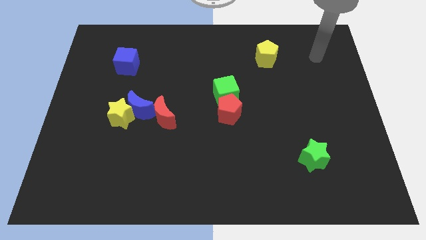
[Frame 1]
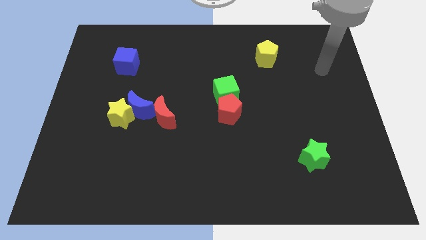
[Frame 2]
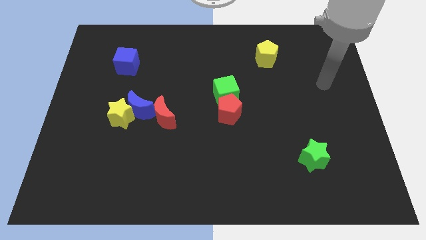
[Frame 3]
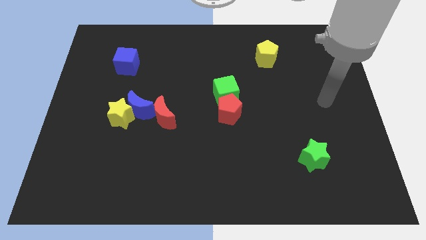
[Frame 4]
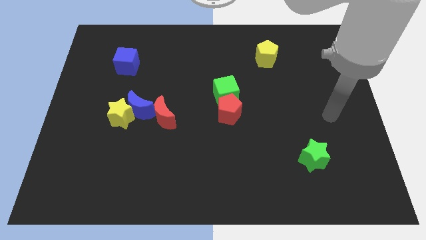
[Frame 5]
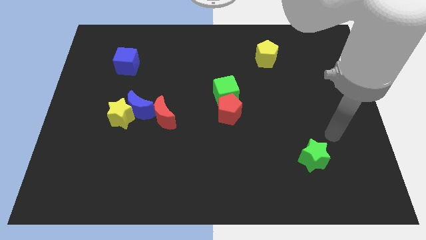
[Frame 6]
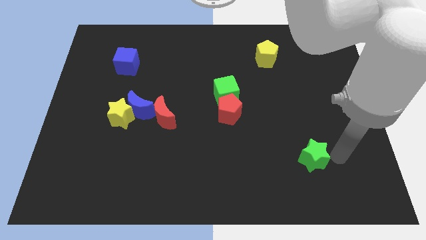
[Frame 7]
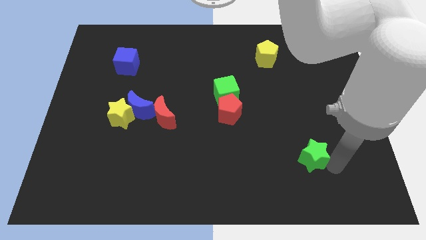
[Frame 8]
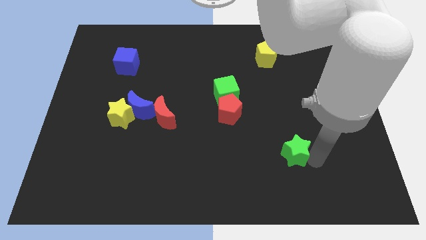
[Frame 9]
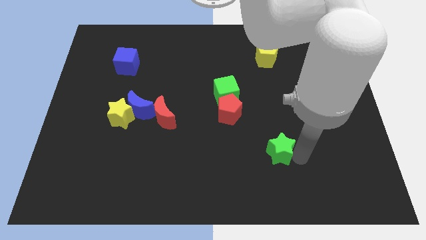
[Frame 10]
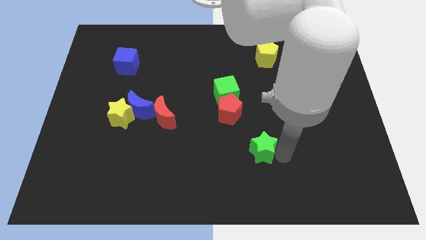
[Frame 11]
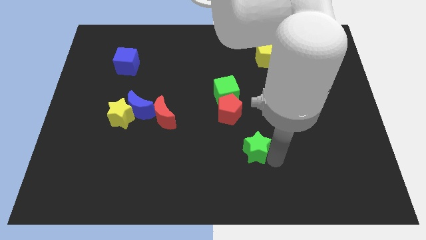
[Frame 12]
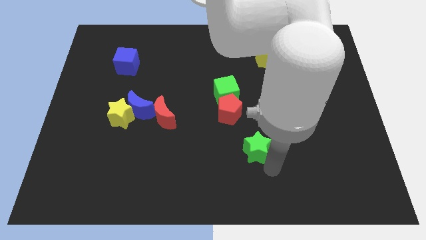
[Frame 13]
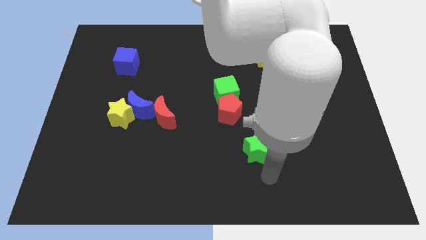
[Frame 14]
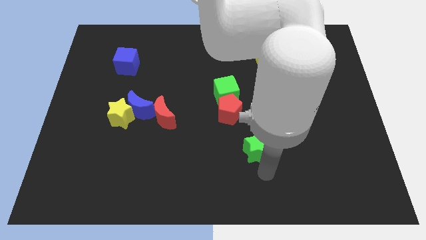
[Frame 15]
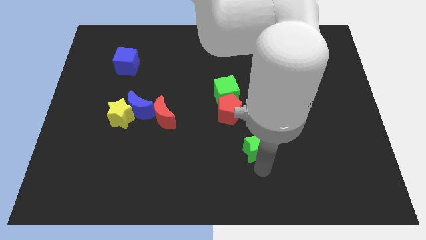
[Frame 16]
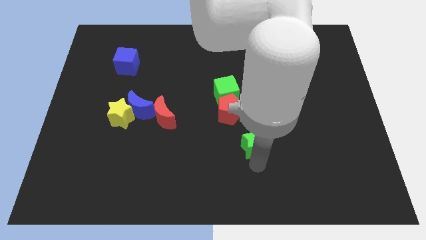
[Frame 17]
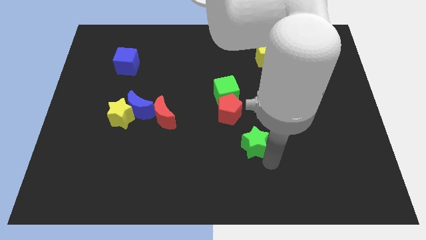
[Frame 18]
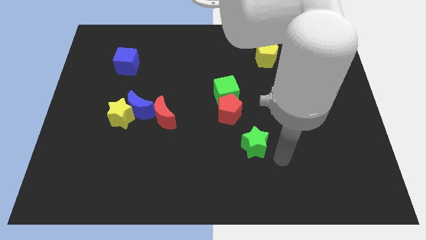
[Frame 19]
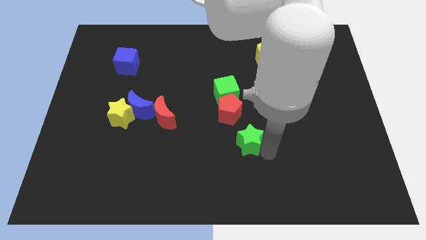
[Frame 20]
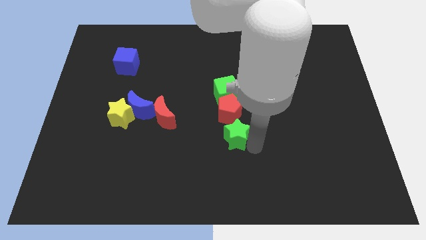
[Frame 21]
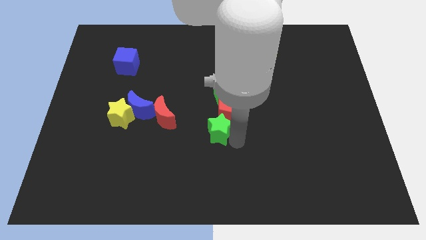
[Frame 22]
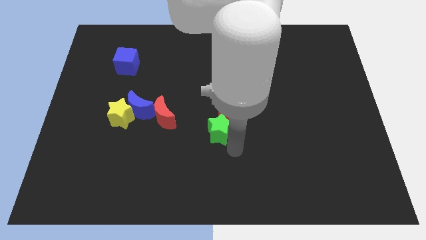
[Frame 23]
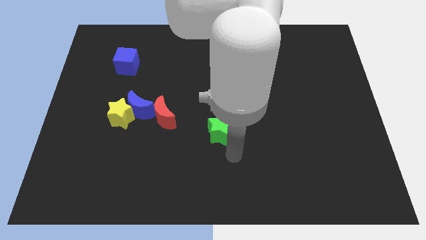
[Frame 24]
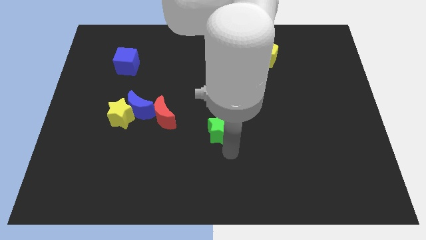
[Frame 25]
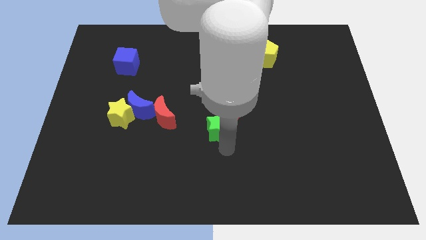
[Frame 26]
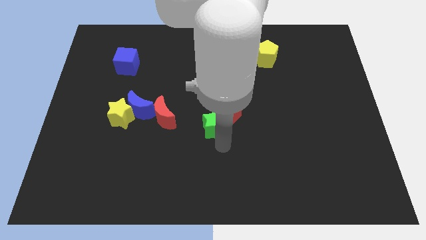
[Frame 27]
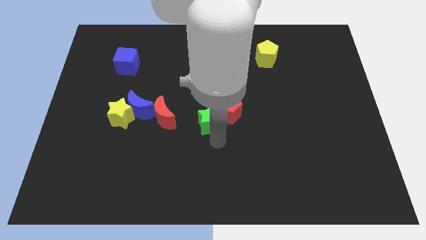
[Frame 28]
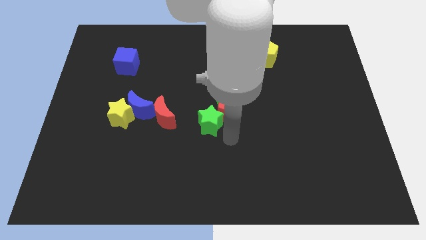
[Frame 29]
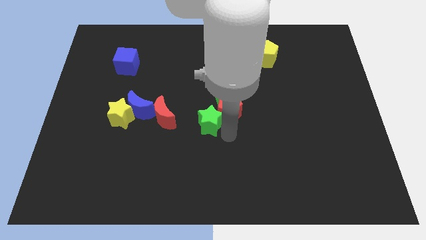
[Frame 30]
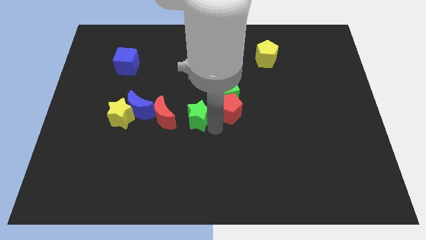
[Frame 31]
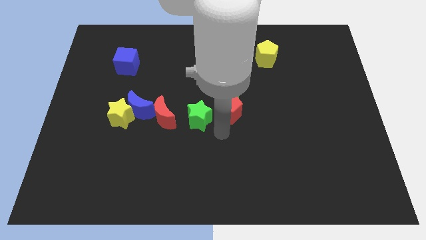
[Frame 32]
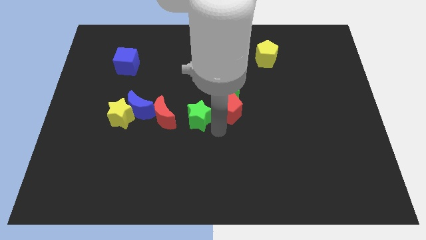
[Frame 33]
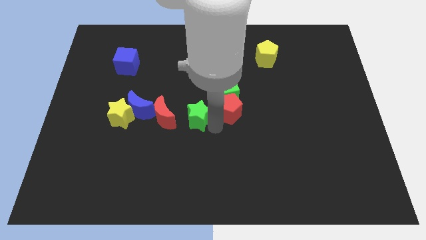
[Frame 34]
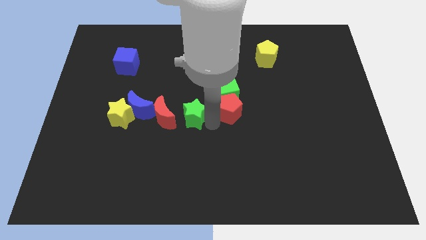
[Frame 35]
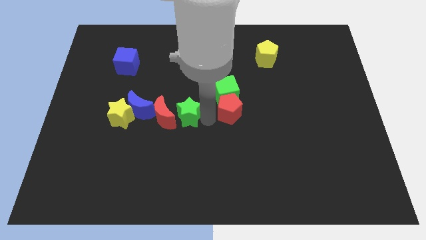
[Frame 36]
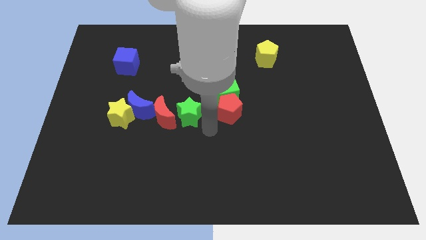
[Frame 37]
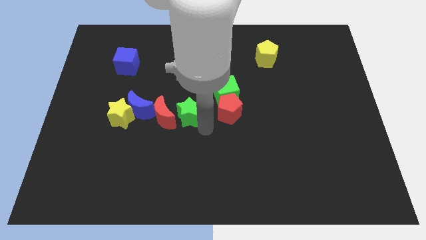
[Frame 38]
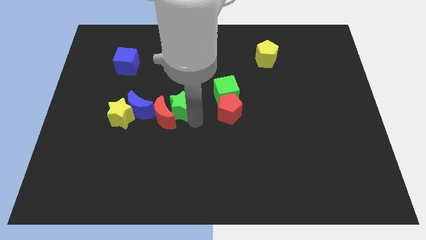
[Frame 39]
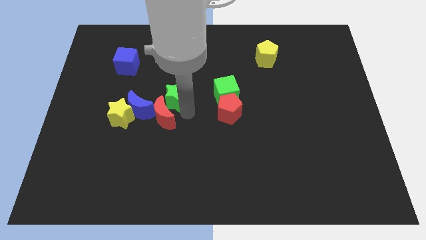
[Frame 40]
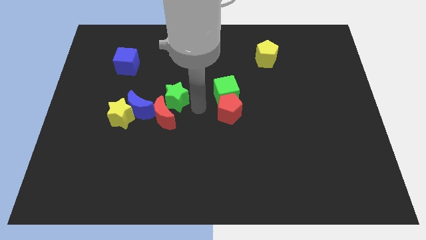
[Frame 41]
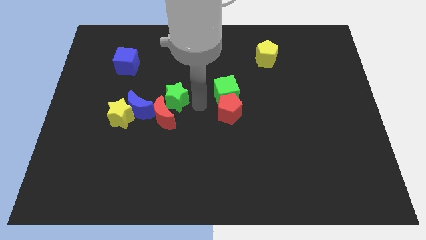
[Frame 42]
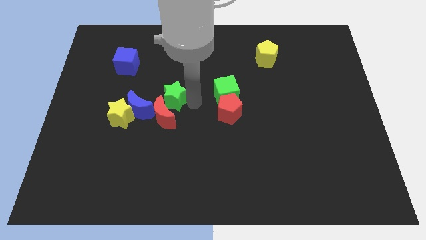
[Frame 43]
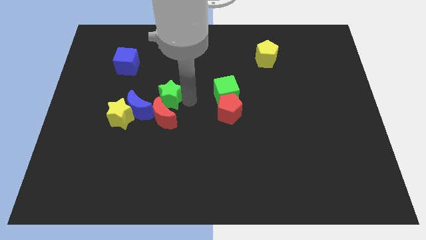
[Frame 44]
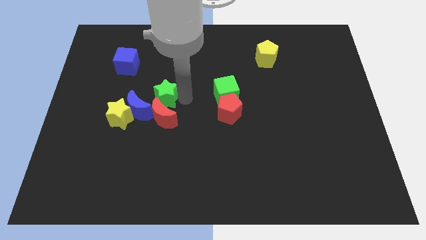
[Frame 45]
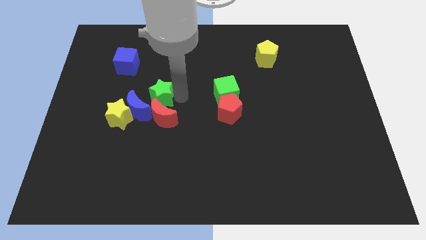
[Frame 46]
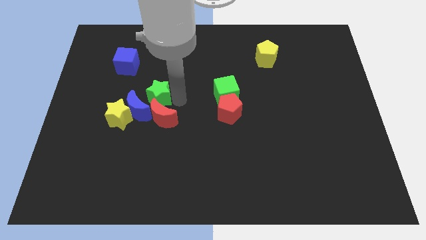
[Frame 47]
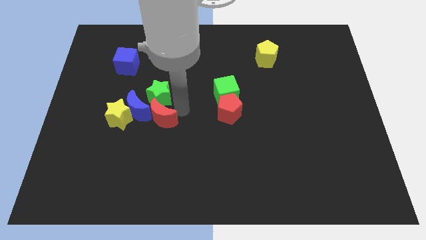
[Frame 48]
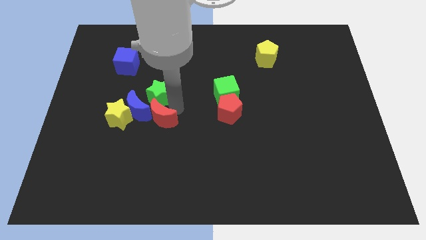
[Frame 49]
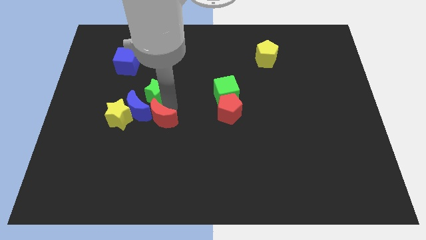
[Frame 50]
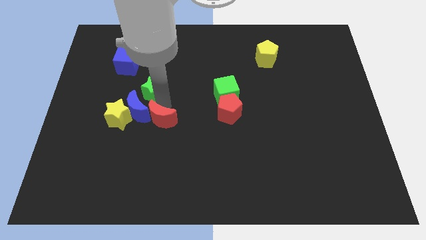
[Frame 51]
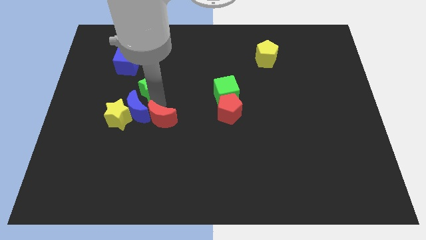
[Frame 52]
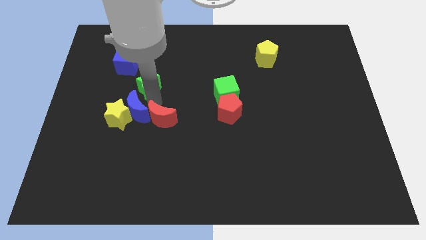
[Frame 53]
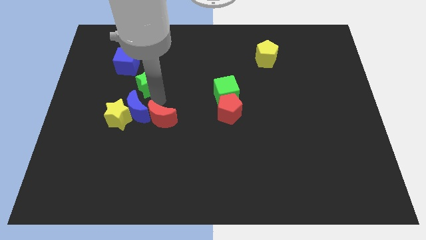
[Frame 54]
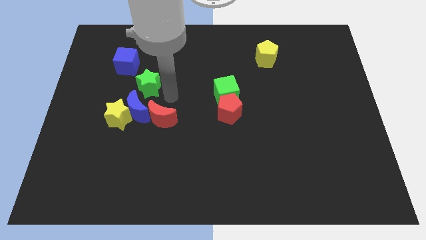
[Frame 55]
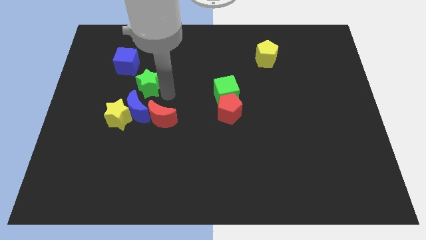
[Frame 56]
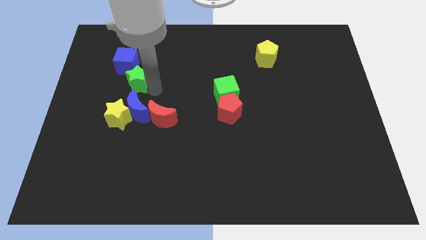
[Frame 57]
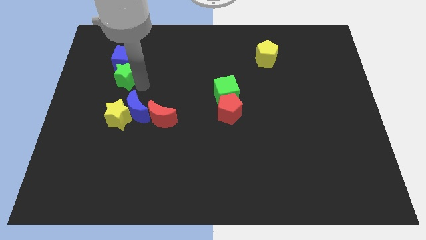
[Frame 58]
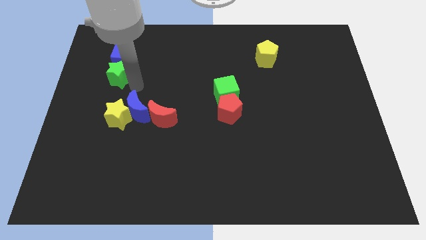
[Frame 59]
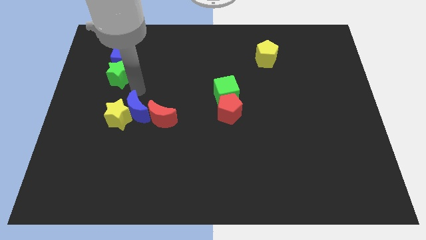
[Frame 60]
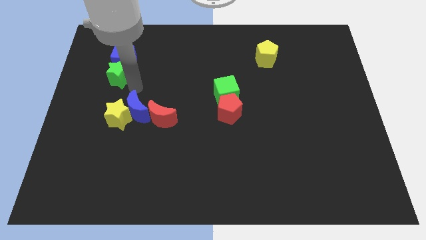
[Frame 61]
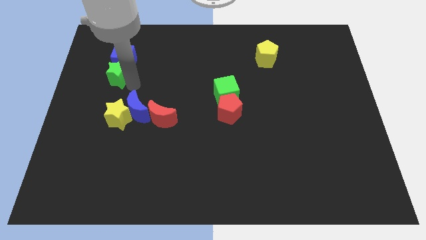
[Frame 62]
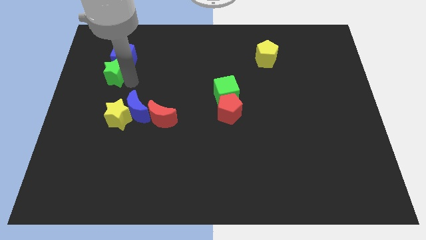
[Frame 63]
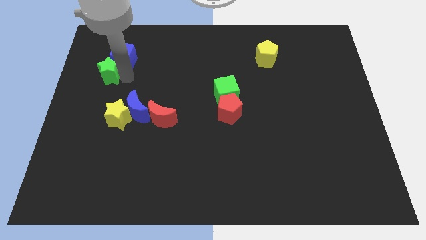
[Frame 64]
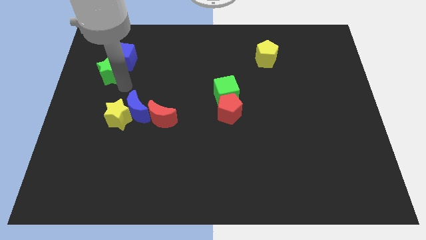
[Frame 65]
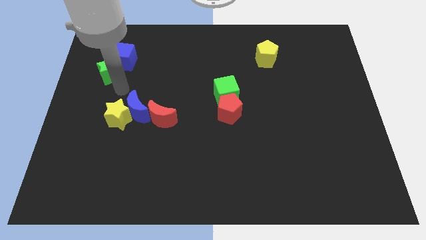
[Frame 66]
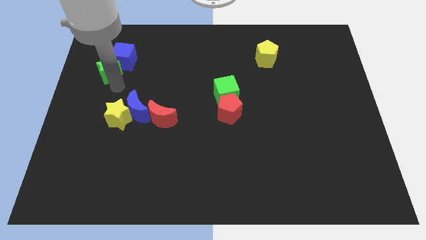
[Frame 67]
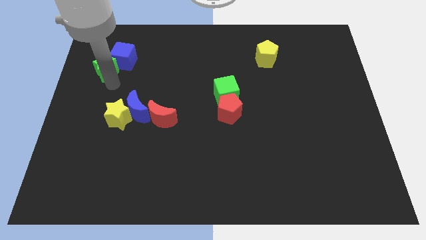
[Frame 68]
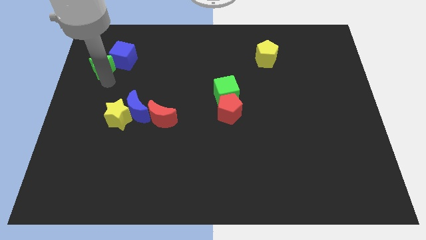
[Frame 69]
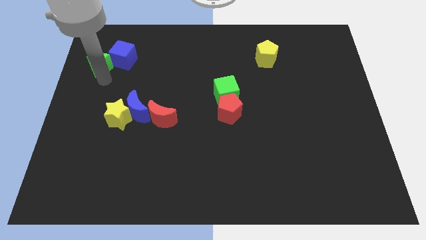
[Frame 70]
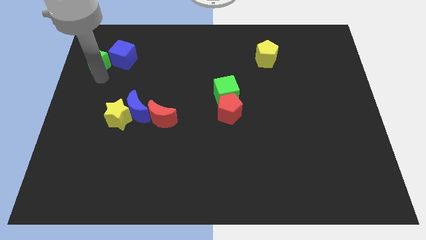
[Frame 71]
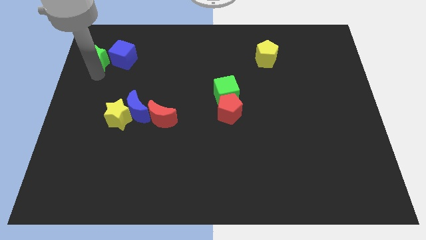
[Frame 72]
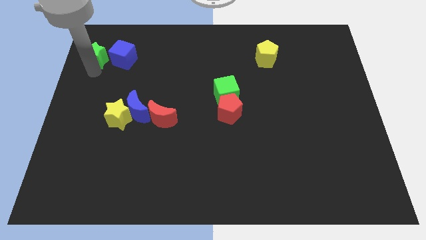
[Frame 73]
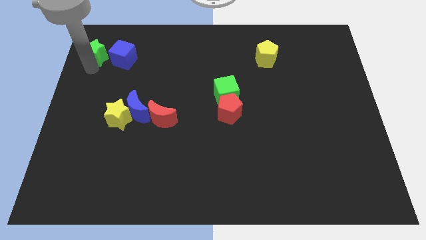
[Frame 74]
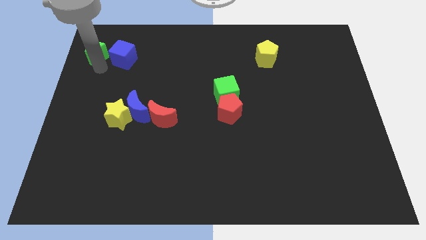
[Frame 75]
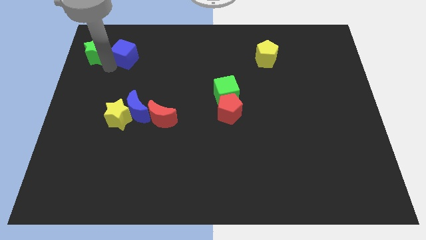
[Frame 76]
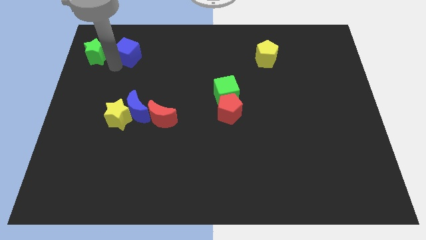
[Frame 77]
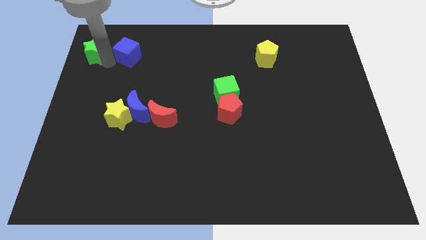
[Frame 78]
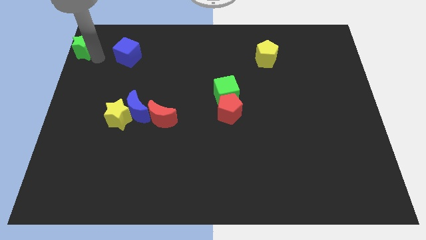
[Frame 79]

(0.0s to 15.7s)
push the green star to the top left
